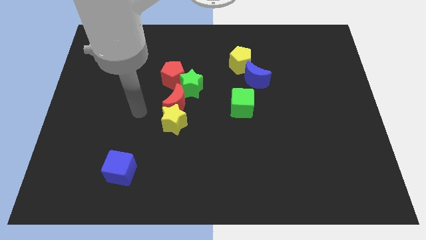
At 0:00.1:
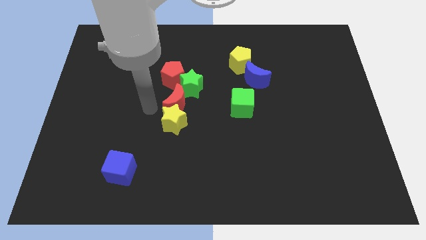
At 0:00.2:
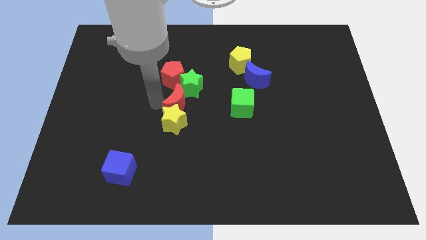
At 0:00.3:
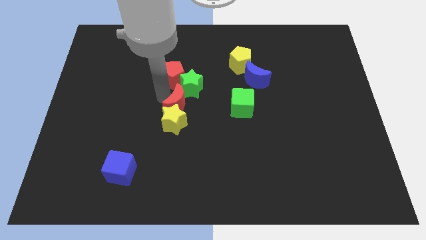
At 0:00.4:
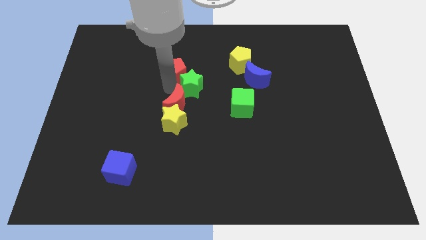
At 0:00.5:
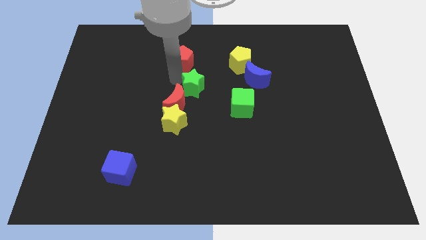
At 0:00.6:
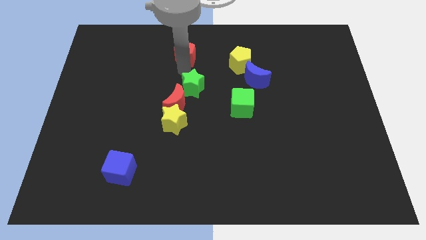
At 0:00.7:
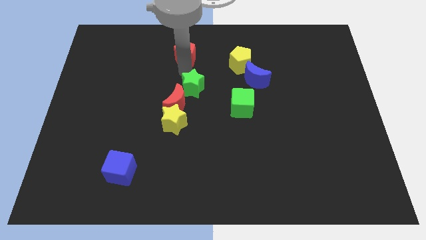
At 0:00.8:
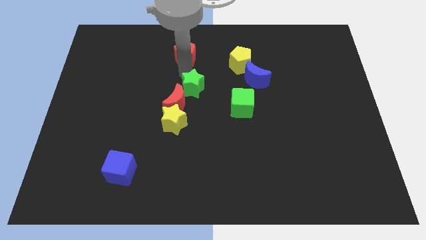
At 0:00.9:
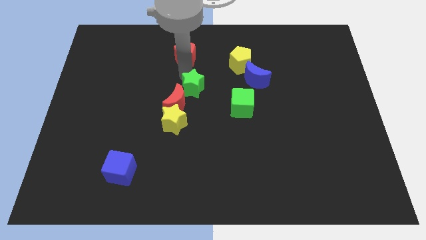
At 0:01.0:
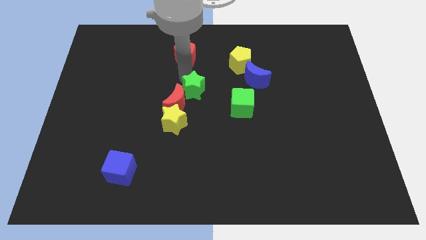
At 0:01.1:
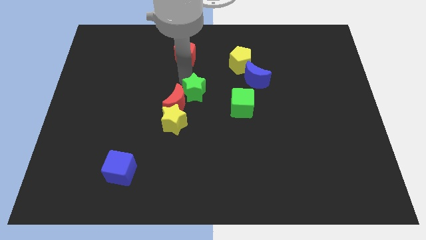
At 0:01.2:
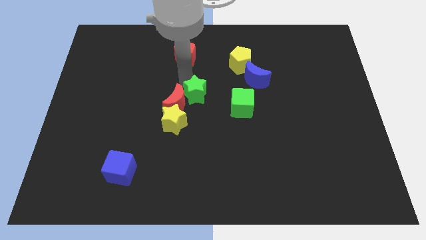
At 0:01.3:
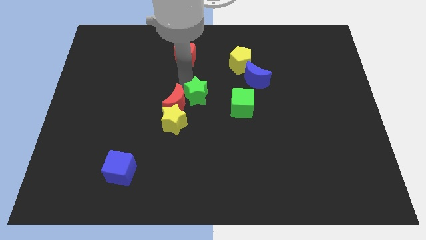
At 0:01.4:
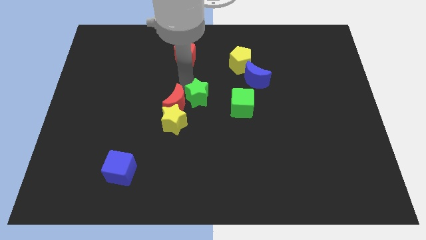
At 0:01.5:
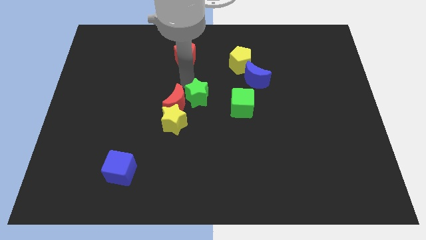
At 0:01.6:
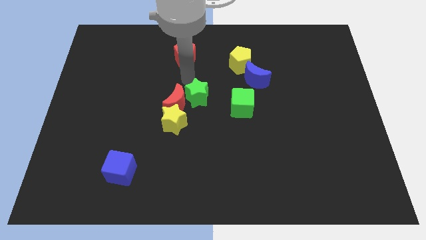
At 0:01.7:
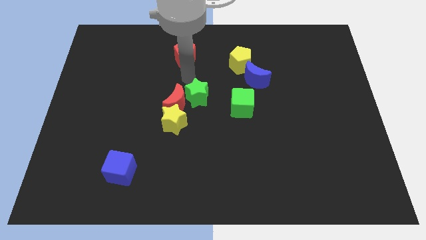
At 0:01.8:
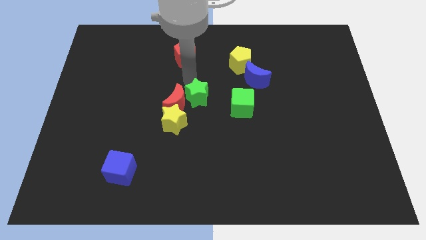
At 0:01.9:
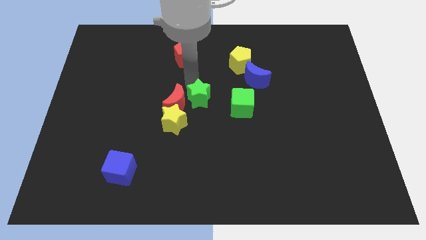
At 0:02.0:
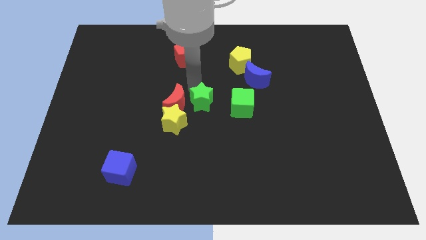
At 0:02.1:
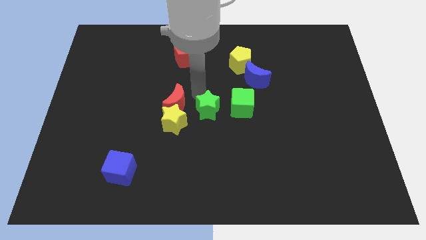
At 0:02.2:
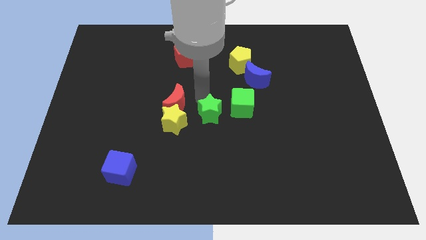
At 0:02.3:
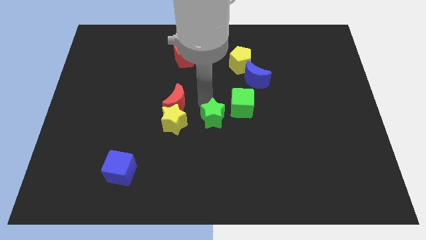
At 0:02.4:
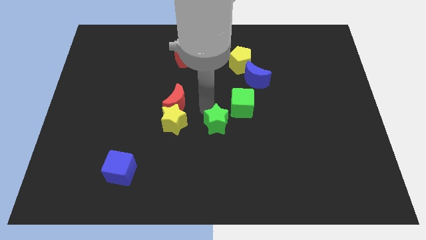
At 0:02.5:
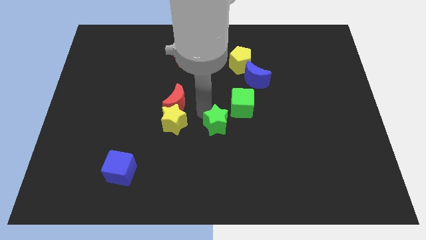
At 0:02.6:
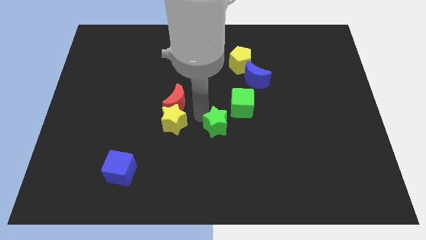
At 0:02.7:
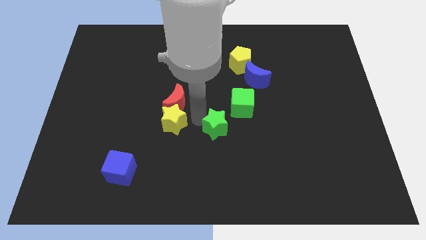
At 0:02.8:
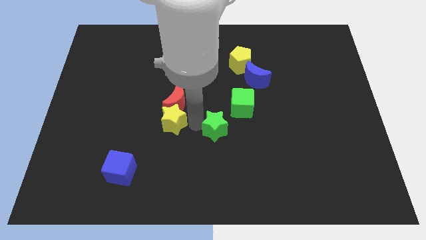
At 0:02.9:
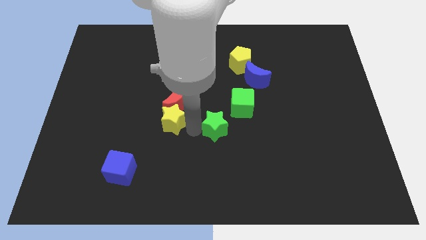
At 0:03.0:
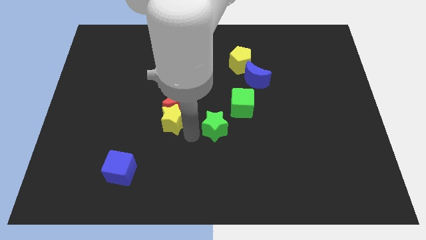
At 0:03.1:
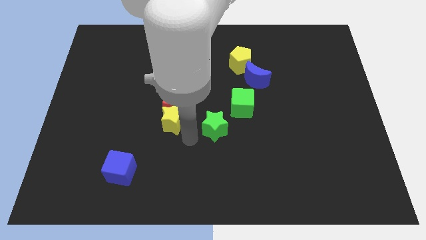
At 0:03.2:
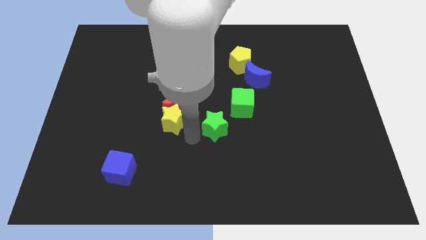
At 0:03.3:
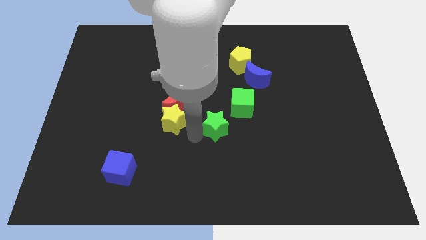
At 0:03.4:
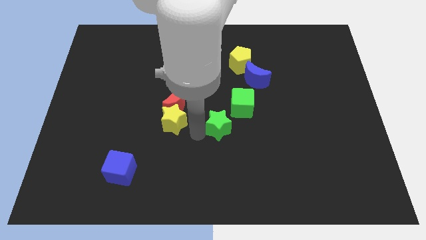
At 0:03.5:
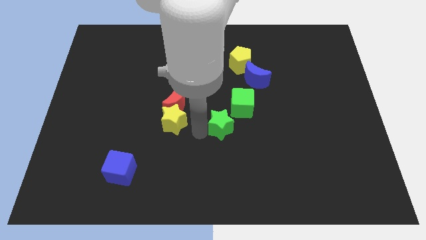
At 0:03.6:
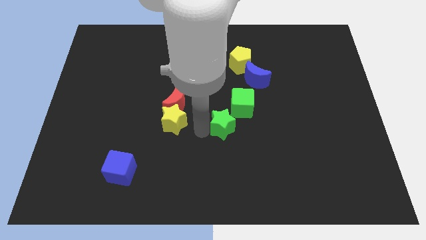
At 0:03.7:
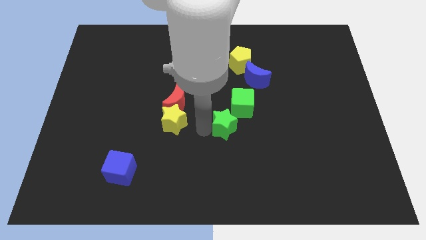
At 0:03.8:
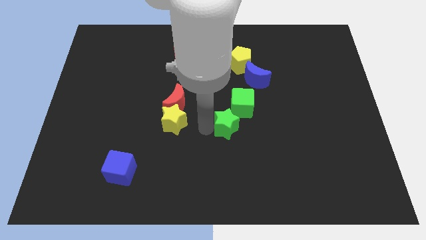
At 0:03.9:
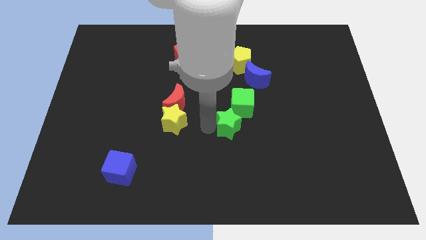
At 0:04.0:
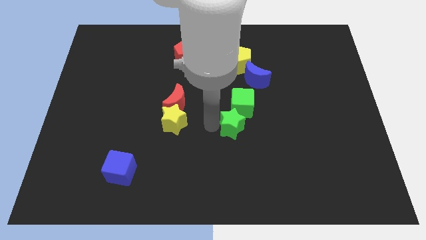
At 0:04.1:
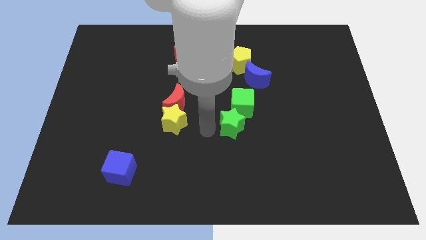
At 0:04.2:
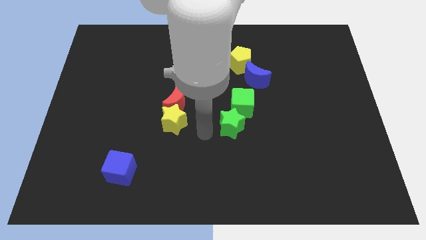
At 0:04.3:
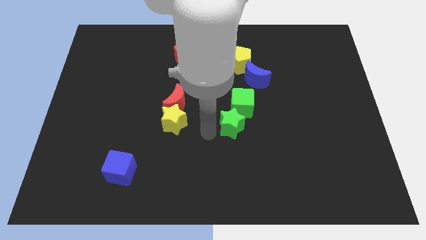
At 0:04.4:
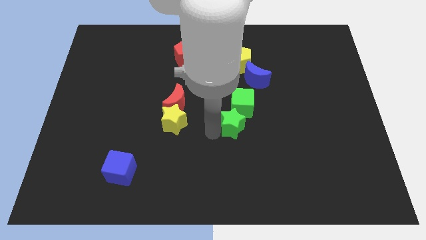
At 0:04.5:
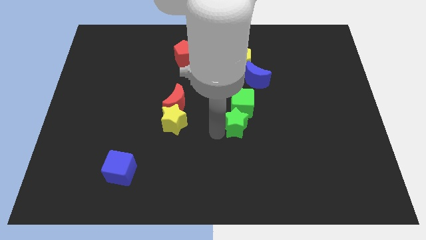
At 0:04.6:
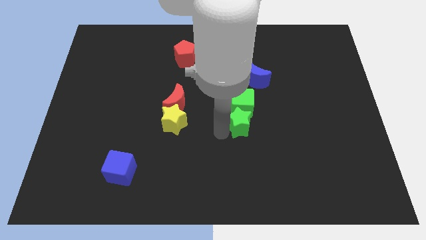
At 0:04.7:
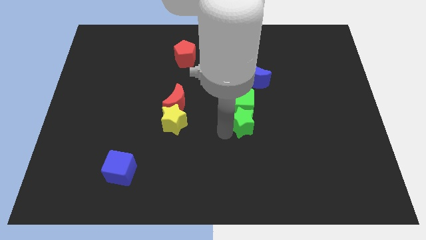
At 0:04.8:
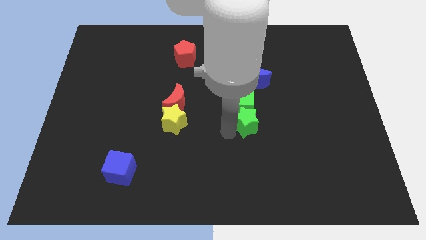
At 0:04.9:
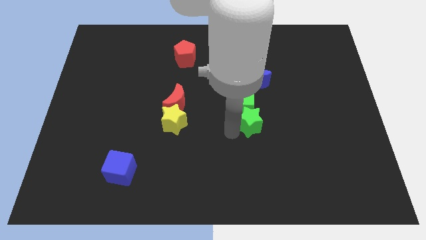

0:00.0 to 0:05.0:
push the green star right a little bit

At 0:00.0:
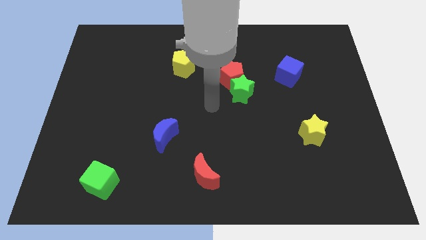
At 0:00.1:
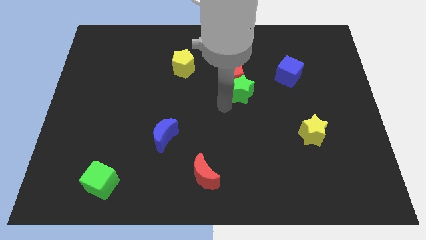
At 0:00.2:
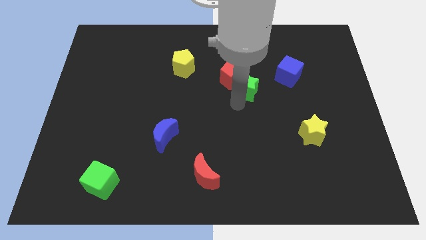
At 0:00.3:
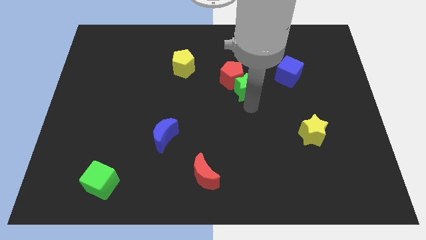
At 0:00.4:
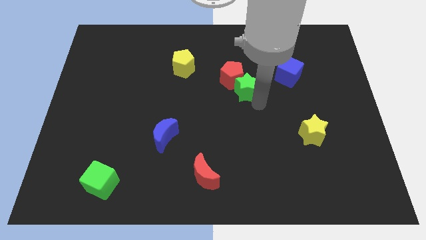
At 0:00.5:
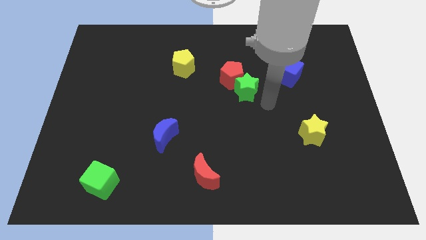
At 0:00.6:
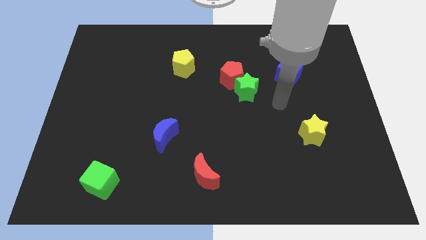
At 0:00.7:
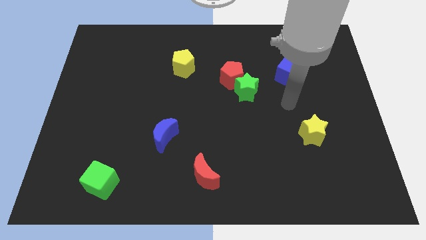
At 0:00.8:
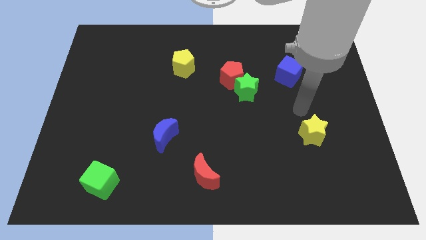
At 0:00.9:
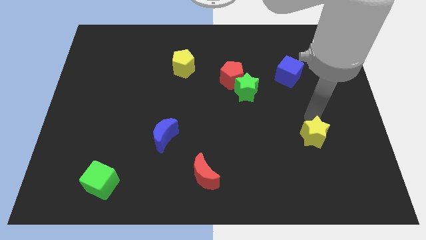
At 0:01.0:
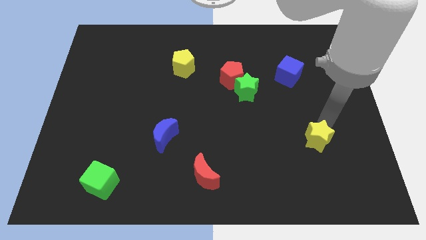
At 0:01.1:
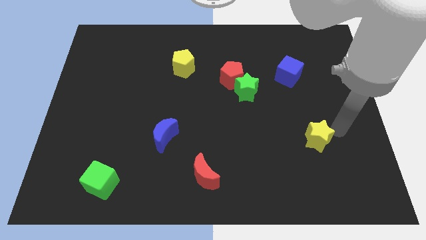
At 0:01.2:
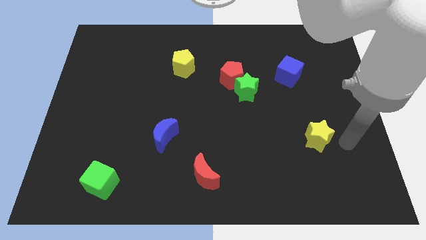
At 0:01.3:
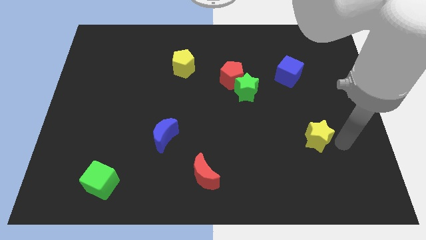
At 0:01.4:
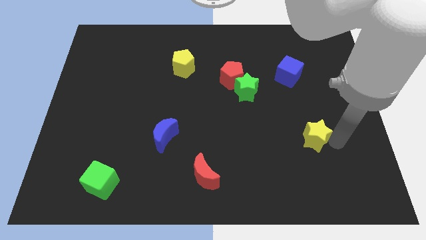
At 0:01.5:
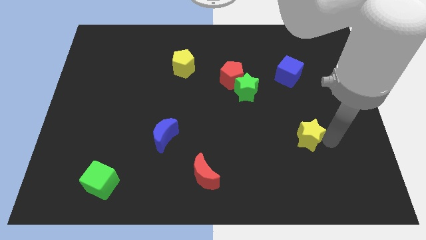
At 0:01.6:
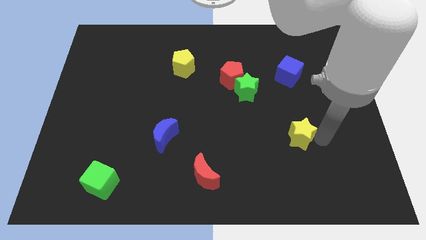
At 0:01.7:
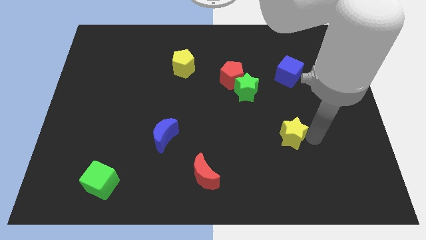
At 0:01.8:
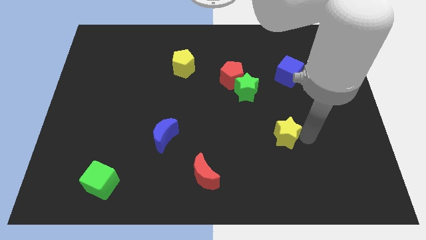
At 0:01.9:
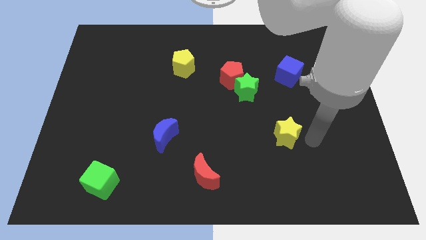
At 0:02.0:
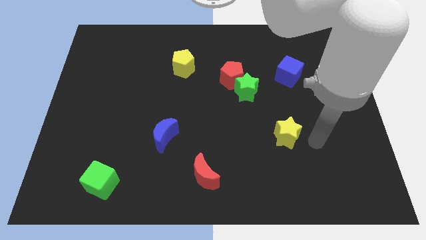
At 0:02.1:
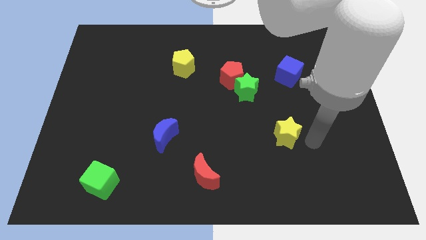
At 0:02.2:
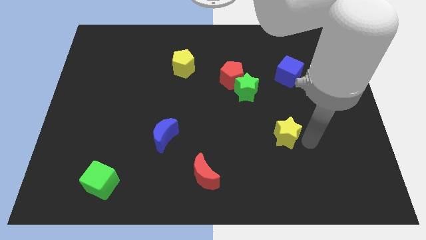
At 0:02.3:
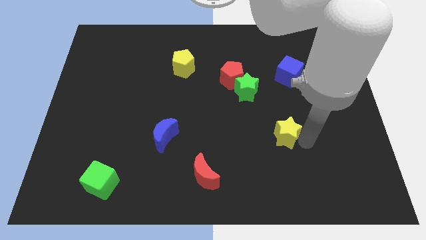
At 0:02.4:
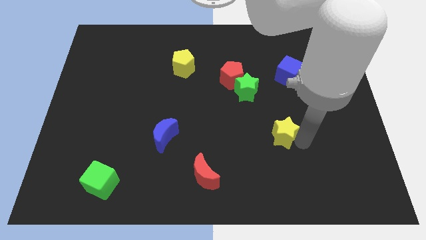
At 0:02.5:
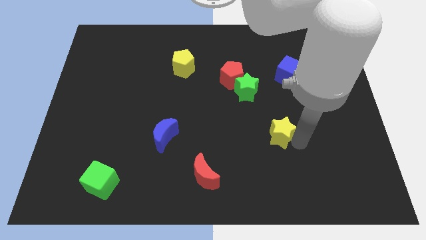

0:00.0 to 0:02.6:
push the yellow star left a bit

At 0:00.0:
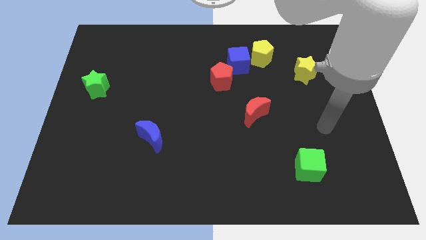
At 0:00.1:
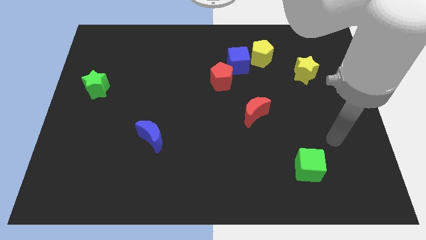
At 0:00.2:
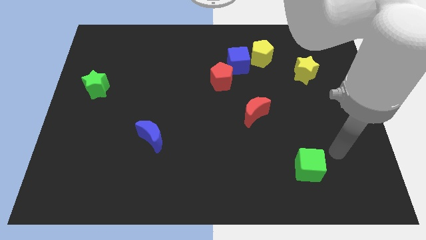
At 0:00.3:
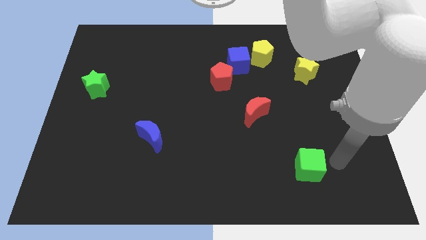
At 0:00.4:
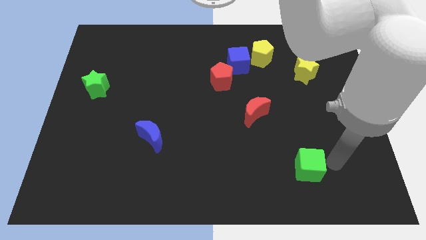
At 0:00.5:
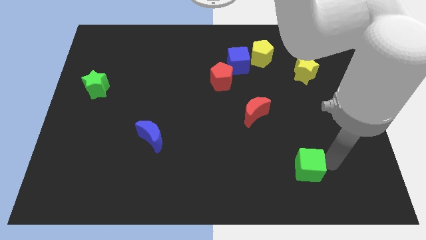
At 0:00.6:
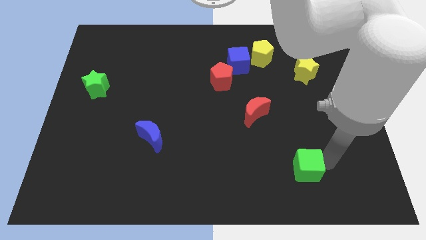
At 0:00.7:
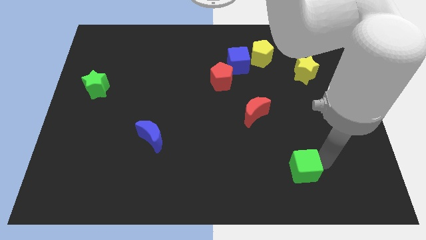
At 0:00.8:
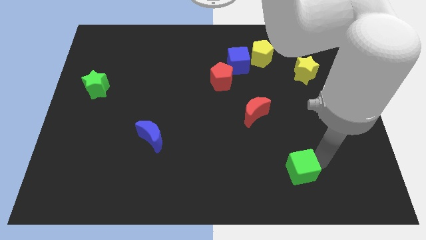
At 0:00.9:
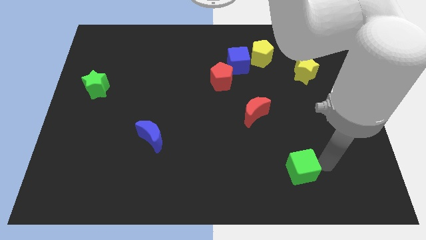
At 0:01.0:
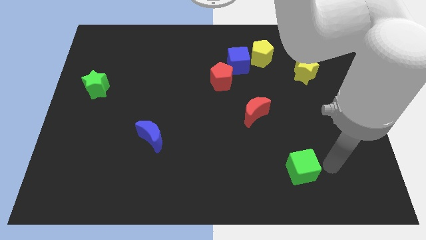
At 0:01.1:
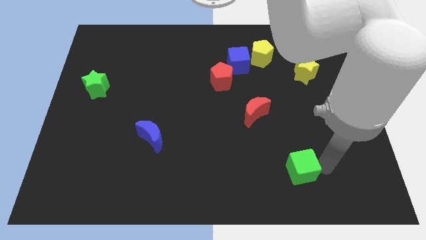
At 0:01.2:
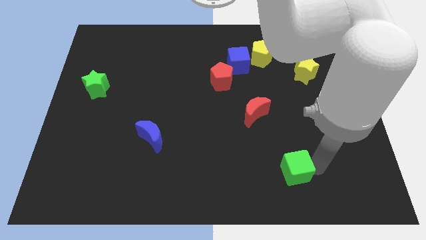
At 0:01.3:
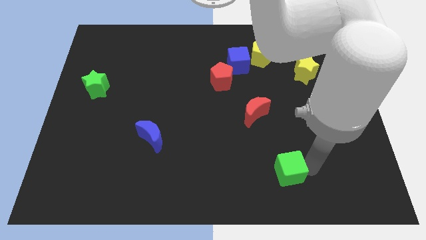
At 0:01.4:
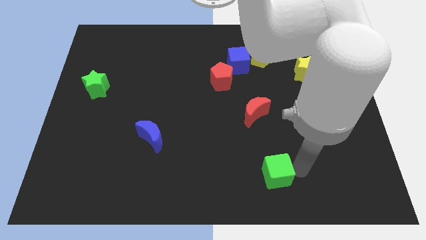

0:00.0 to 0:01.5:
slightly push the green cube to the left
